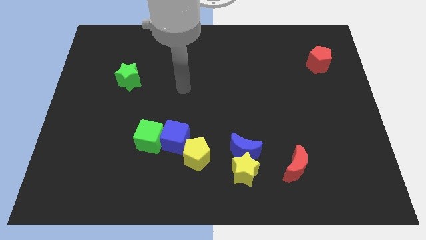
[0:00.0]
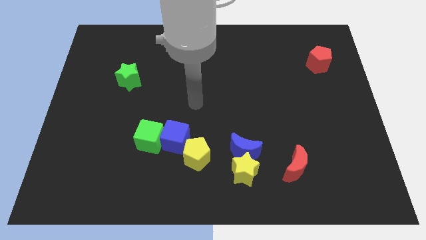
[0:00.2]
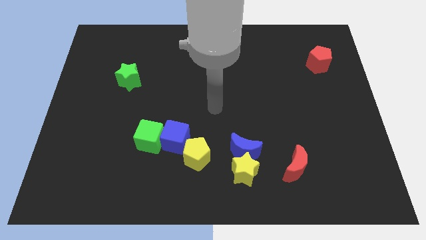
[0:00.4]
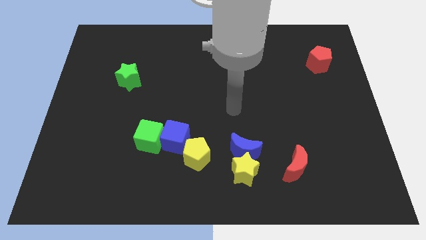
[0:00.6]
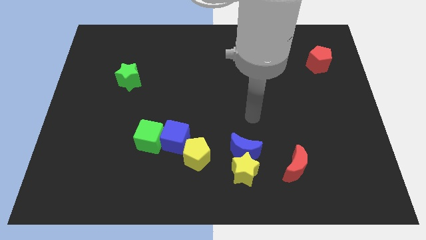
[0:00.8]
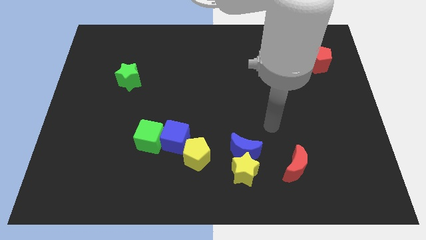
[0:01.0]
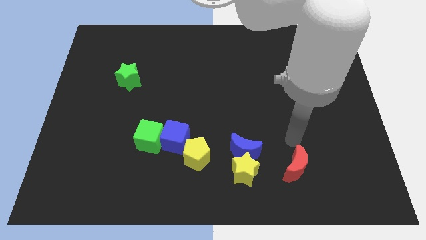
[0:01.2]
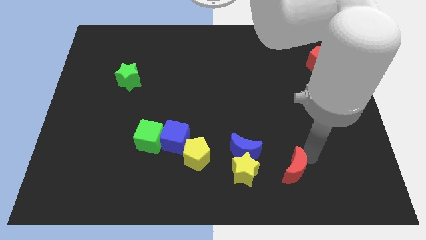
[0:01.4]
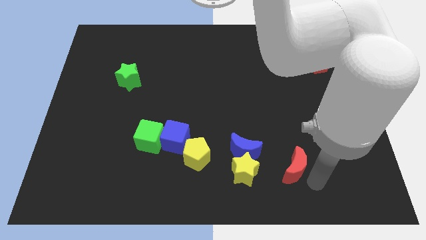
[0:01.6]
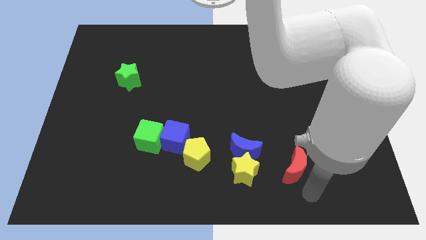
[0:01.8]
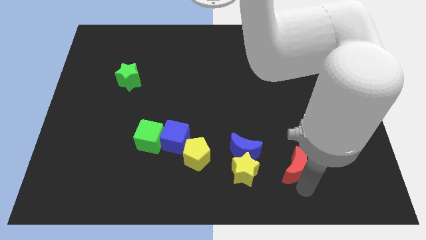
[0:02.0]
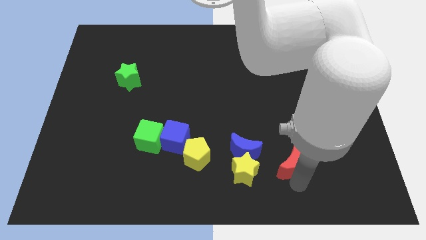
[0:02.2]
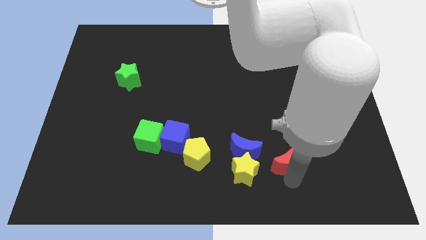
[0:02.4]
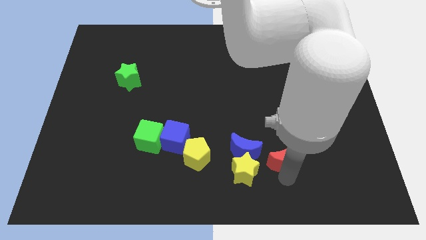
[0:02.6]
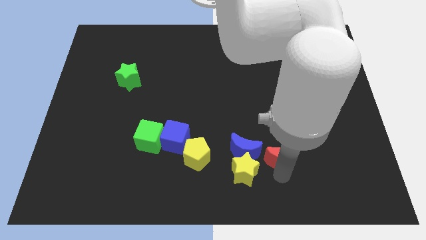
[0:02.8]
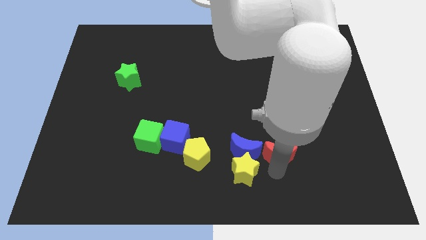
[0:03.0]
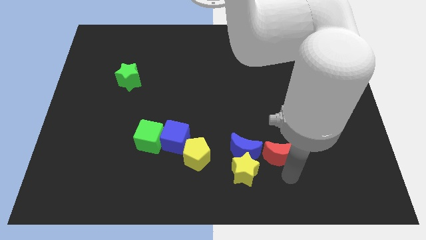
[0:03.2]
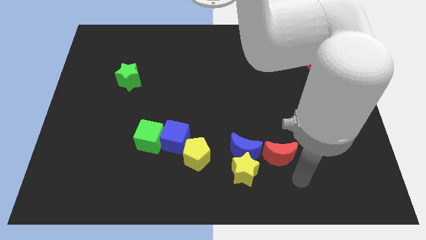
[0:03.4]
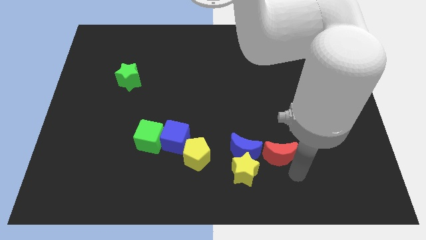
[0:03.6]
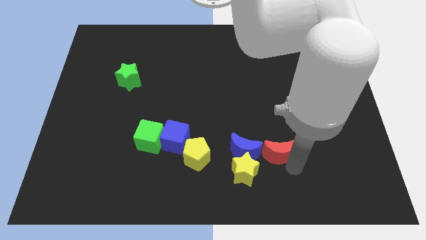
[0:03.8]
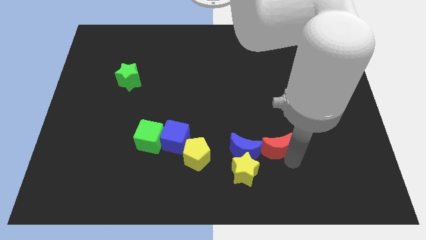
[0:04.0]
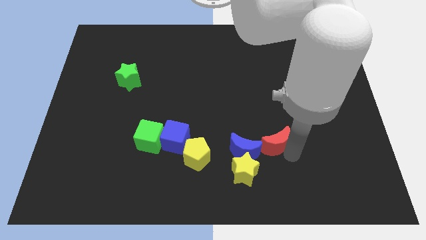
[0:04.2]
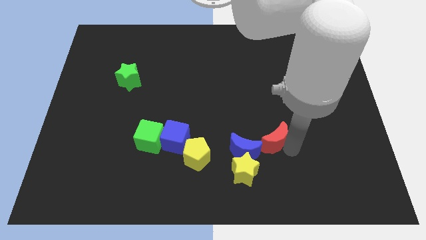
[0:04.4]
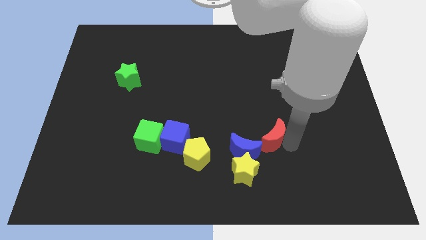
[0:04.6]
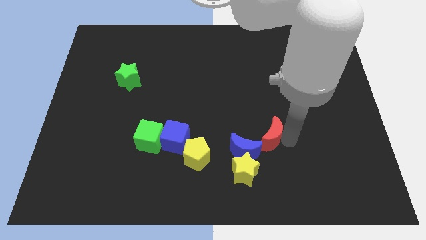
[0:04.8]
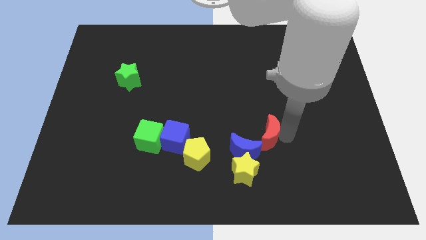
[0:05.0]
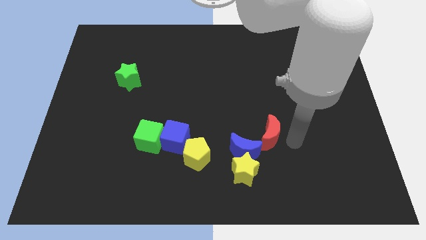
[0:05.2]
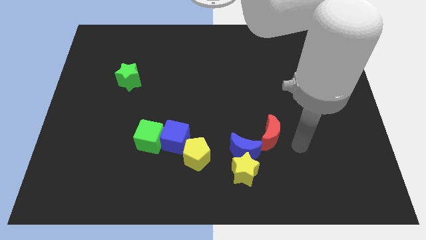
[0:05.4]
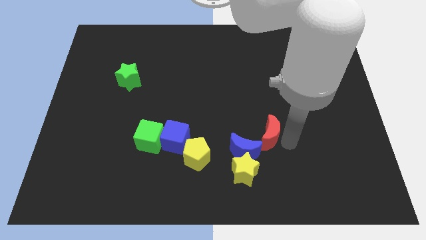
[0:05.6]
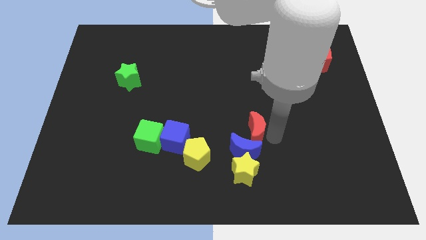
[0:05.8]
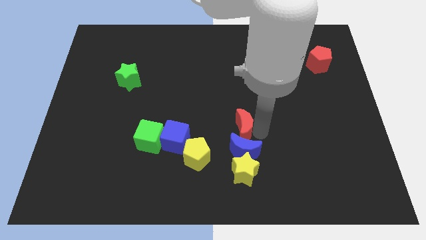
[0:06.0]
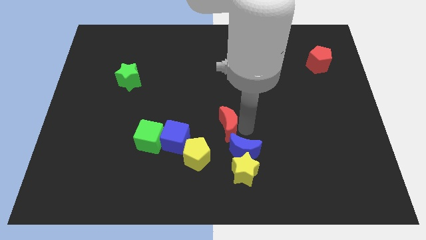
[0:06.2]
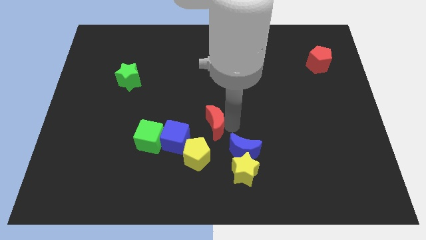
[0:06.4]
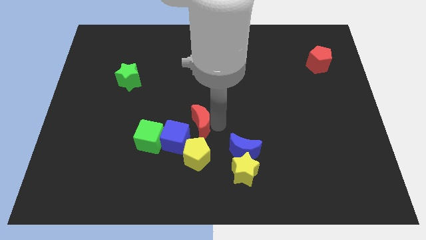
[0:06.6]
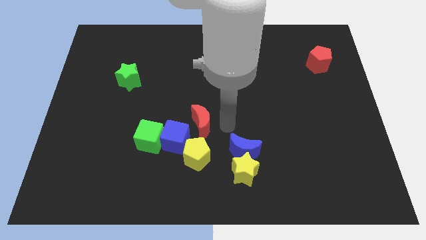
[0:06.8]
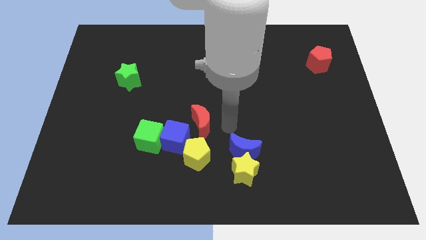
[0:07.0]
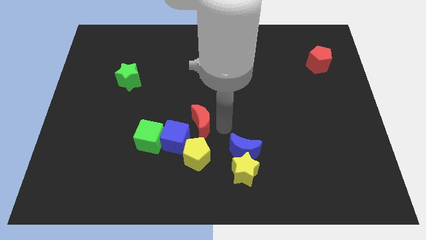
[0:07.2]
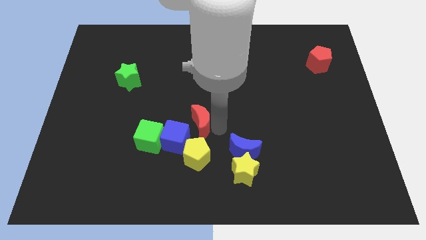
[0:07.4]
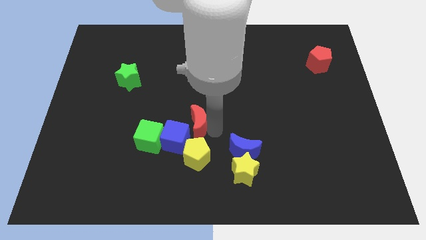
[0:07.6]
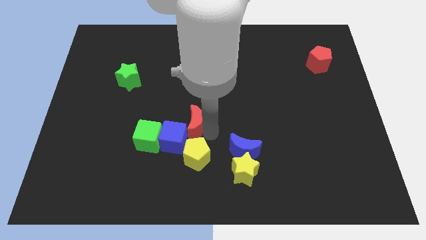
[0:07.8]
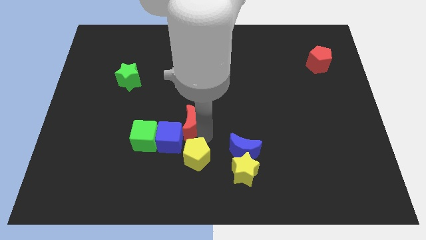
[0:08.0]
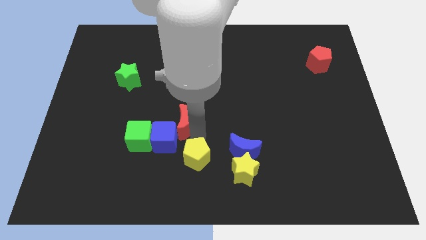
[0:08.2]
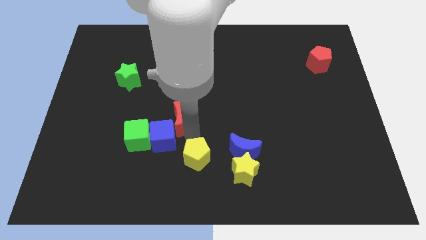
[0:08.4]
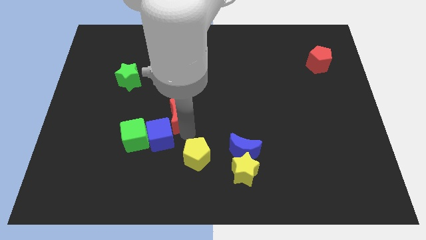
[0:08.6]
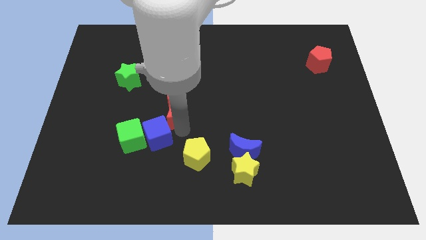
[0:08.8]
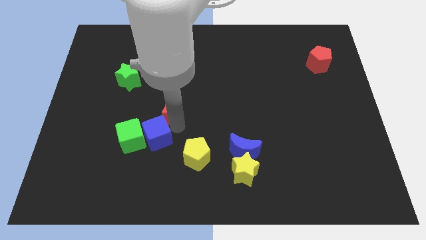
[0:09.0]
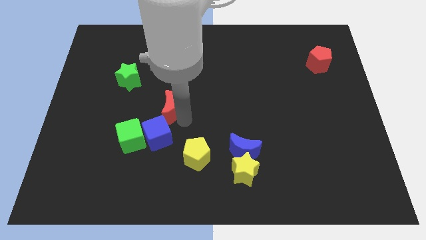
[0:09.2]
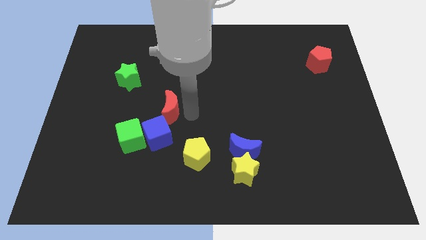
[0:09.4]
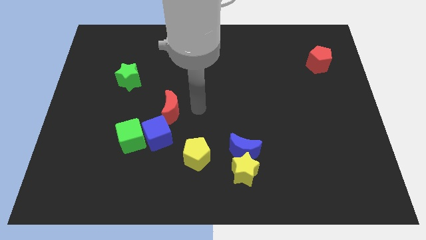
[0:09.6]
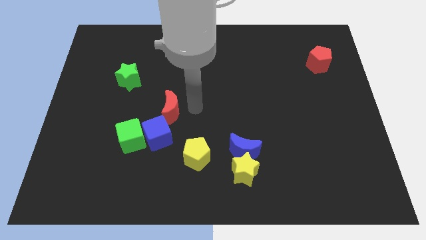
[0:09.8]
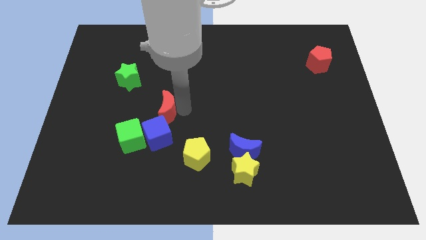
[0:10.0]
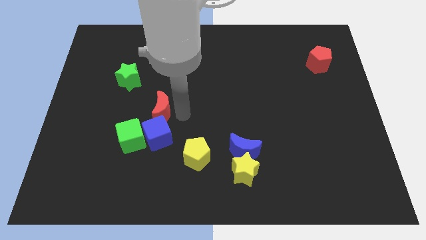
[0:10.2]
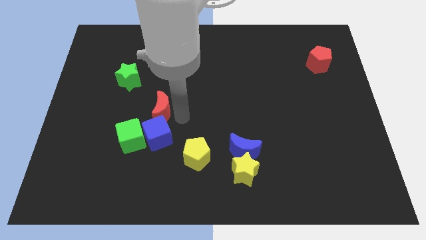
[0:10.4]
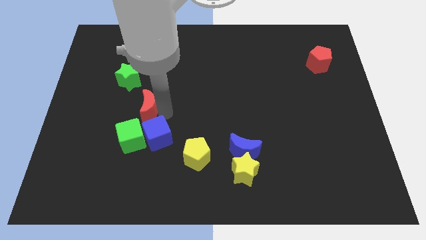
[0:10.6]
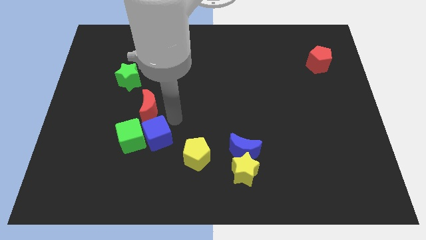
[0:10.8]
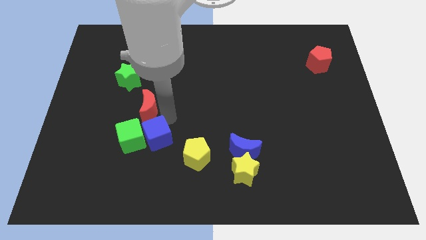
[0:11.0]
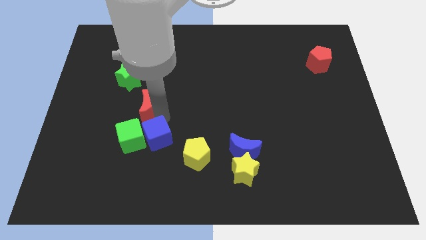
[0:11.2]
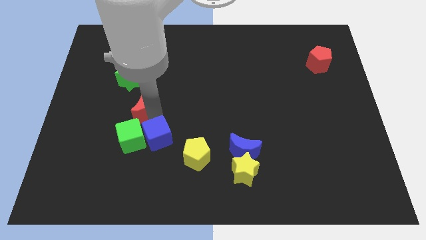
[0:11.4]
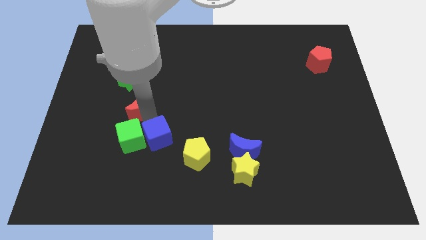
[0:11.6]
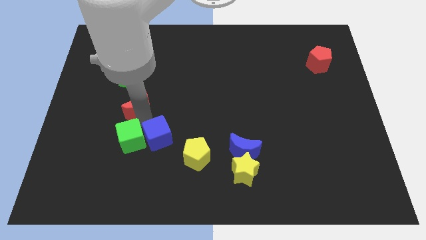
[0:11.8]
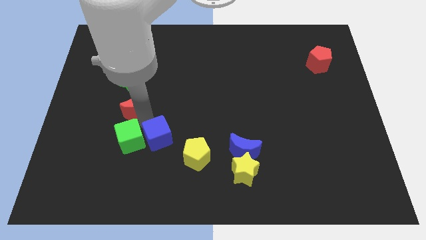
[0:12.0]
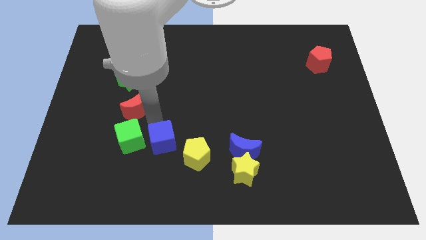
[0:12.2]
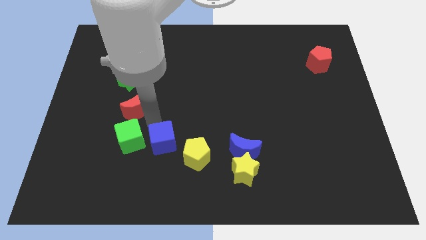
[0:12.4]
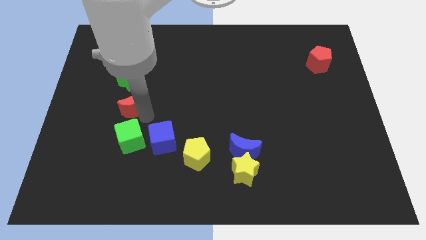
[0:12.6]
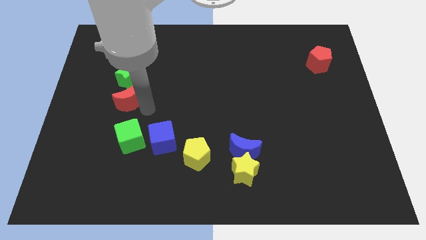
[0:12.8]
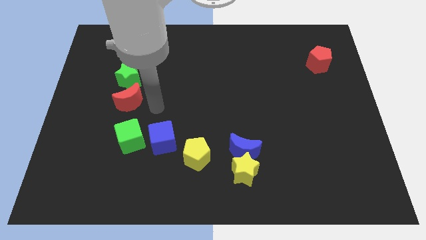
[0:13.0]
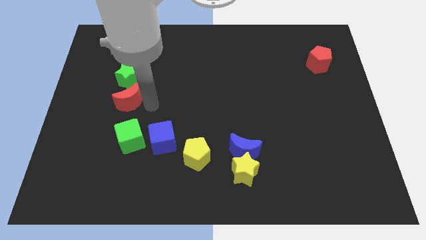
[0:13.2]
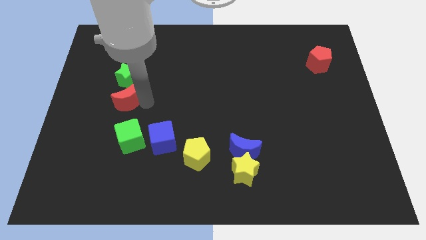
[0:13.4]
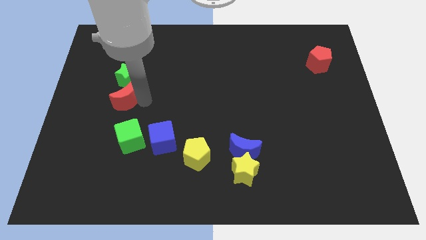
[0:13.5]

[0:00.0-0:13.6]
slide the red moon to the bottom left of the green star

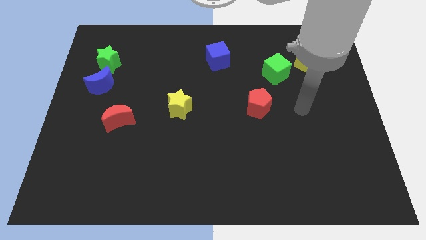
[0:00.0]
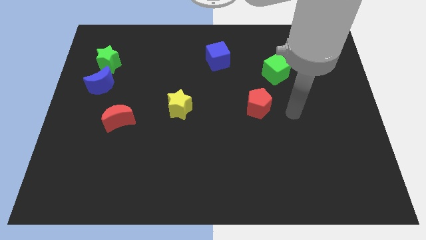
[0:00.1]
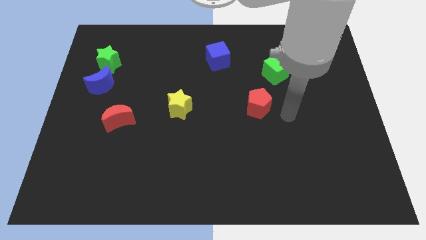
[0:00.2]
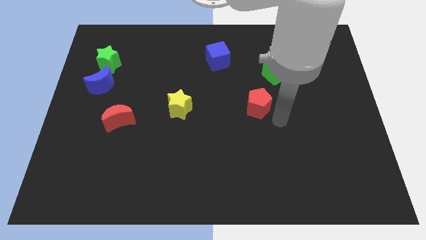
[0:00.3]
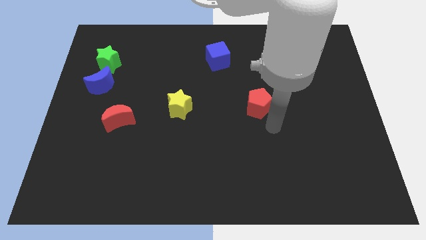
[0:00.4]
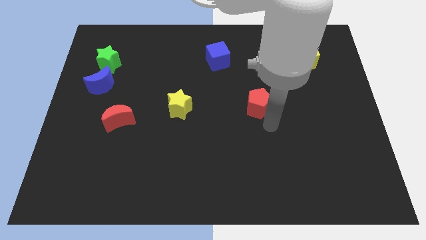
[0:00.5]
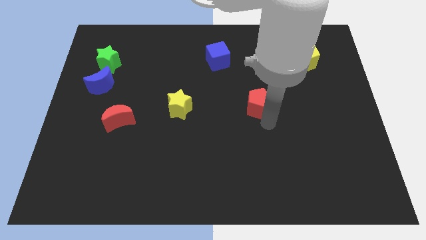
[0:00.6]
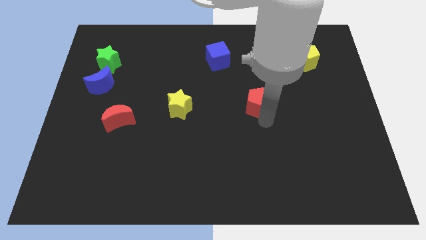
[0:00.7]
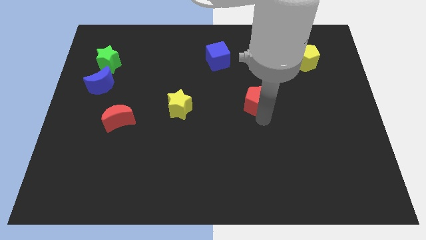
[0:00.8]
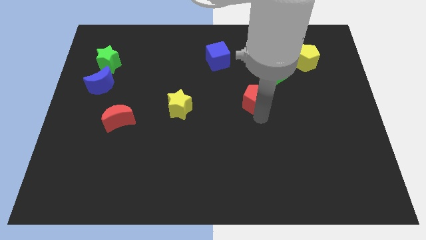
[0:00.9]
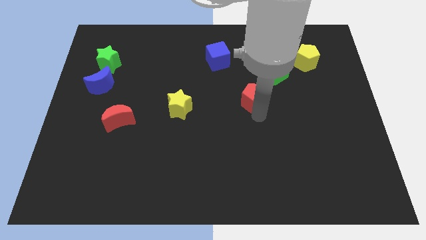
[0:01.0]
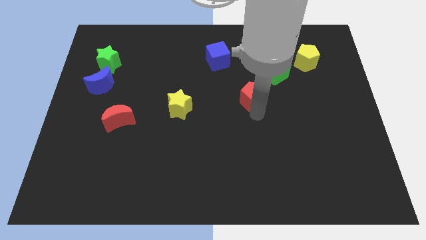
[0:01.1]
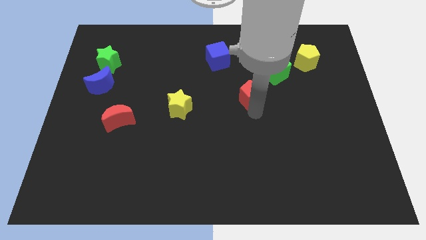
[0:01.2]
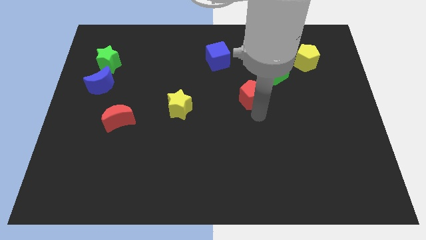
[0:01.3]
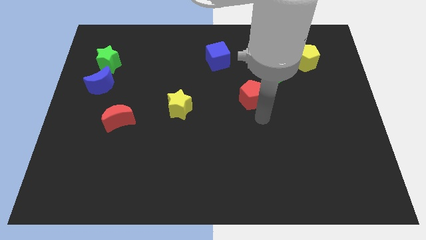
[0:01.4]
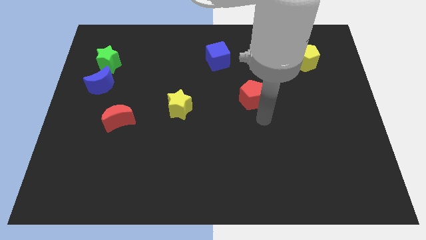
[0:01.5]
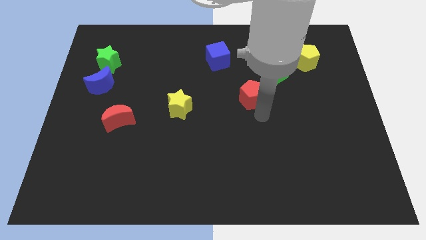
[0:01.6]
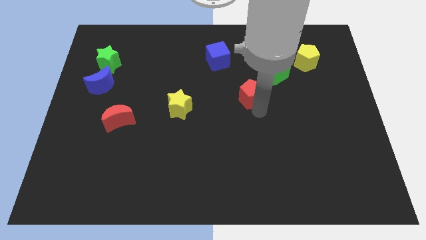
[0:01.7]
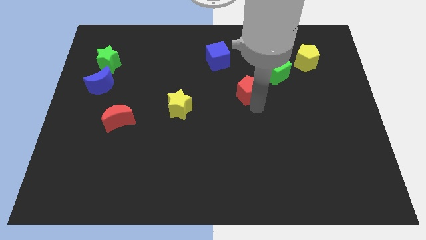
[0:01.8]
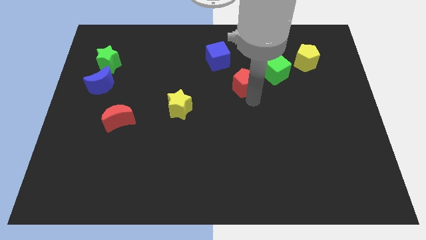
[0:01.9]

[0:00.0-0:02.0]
push the red pentagon to the left side of the green cube
